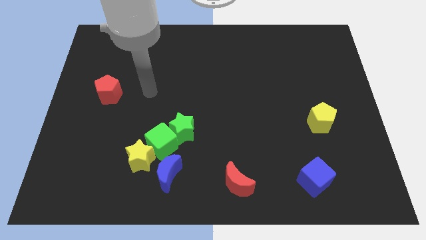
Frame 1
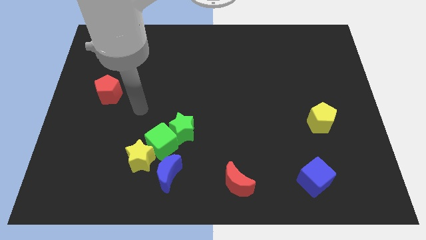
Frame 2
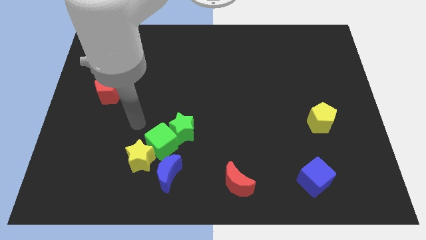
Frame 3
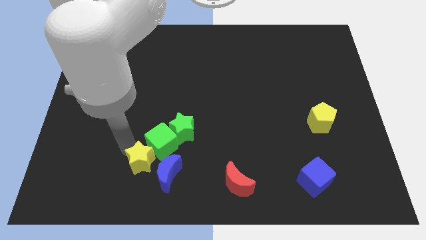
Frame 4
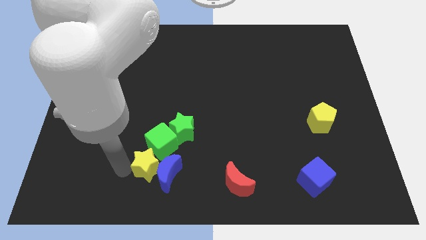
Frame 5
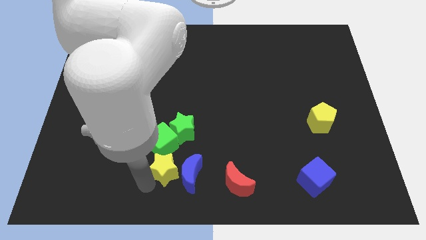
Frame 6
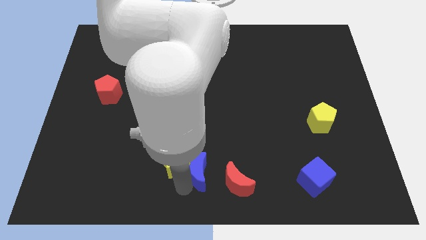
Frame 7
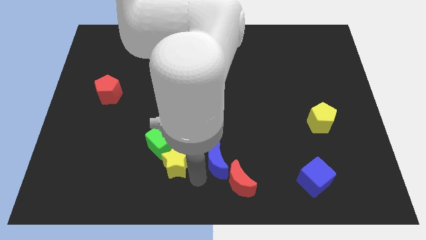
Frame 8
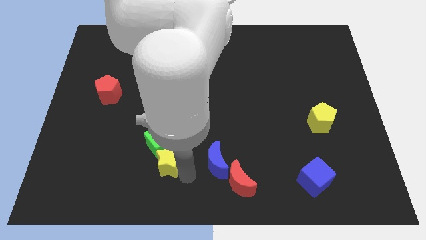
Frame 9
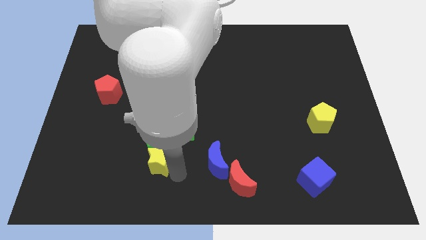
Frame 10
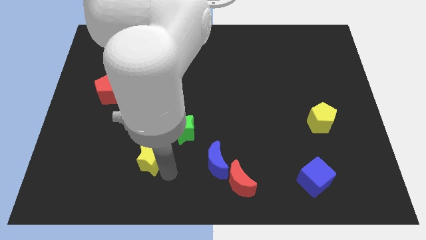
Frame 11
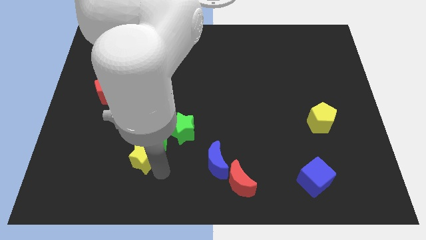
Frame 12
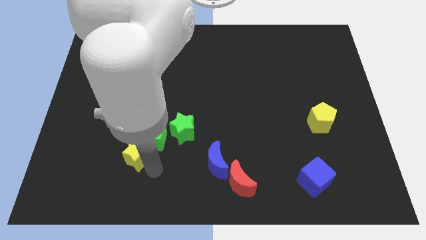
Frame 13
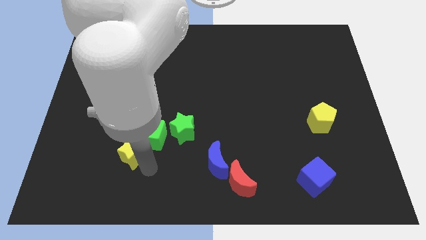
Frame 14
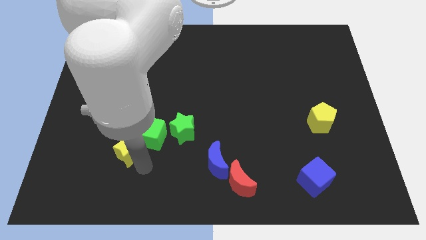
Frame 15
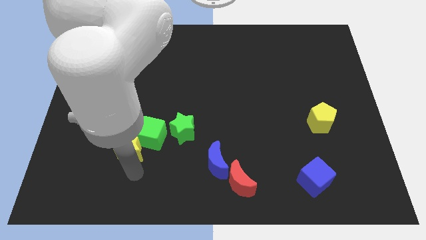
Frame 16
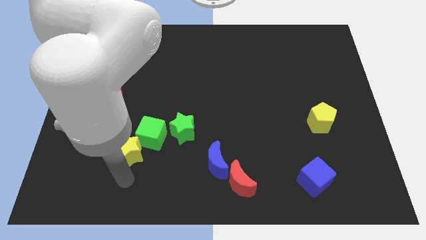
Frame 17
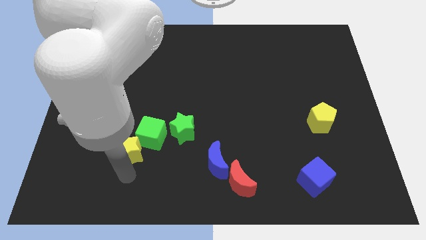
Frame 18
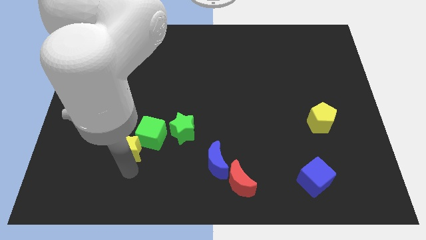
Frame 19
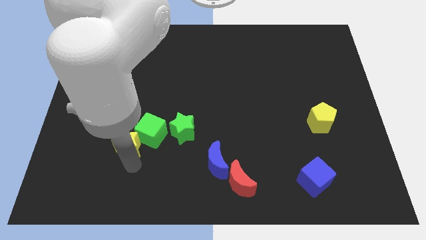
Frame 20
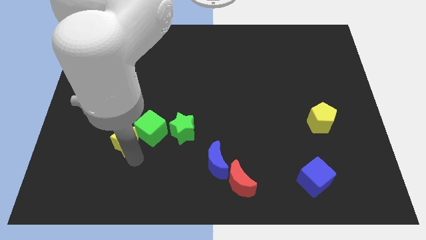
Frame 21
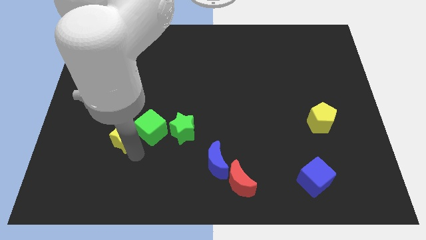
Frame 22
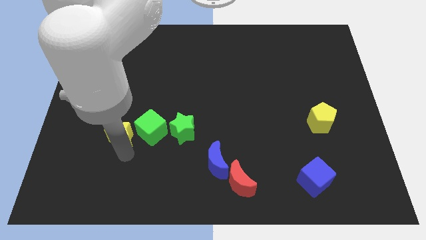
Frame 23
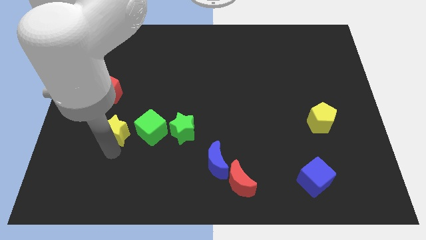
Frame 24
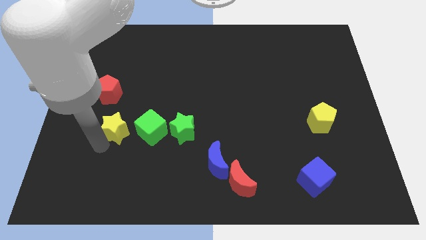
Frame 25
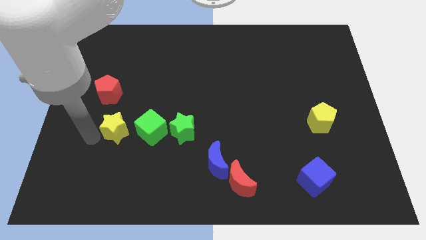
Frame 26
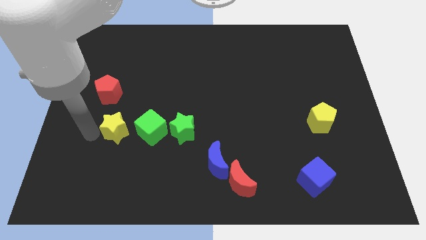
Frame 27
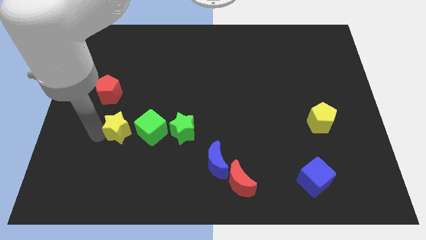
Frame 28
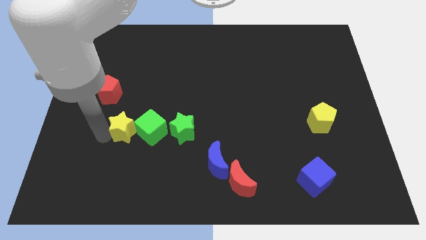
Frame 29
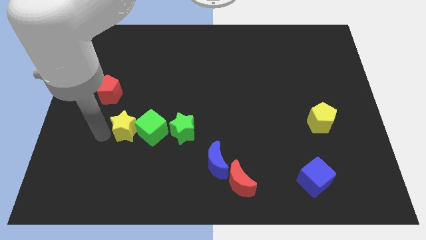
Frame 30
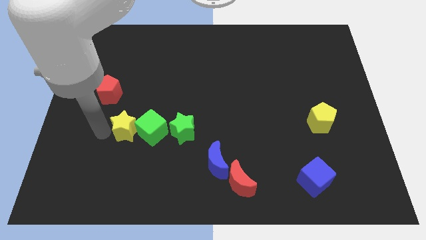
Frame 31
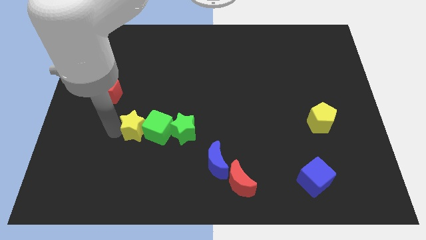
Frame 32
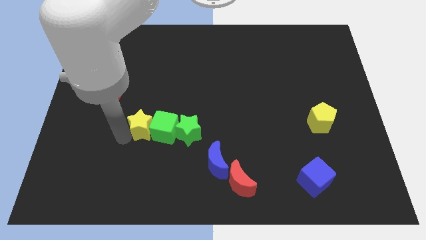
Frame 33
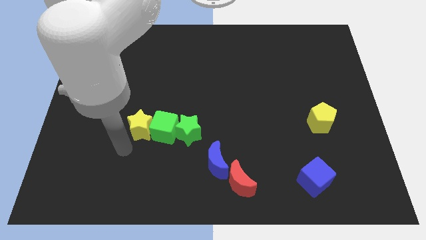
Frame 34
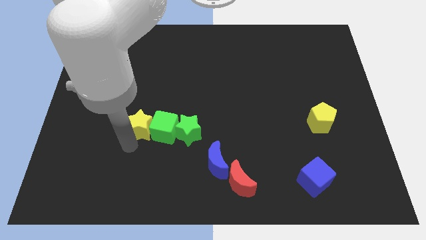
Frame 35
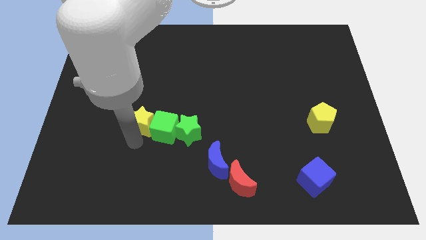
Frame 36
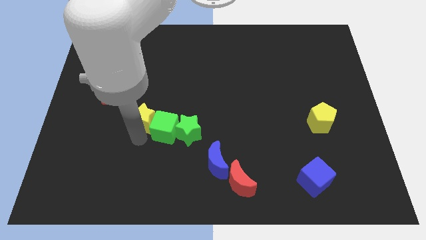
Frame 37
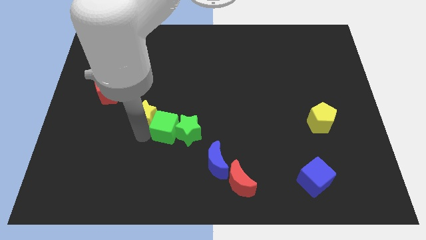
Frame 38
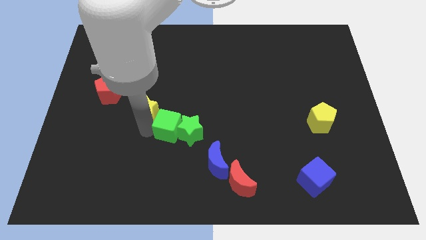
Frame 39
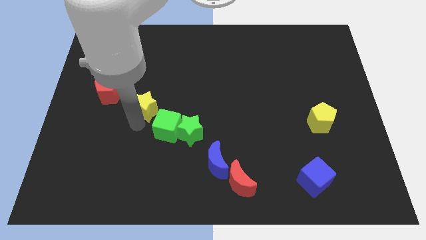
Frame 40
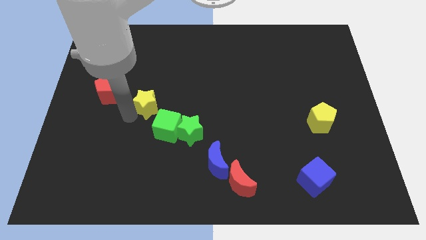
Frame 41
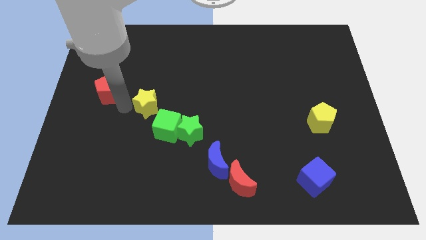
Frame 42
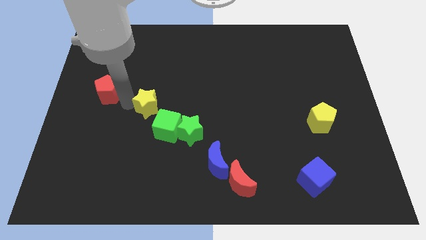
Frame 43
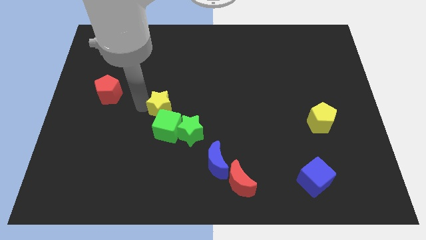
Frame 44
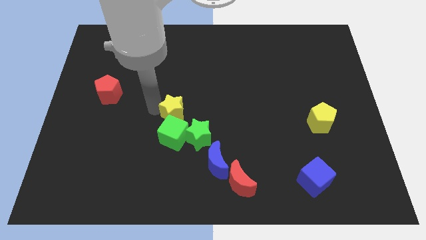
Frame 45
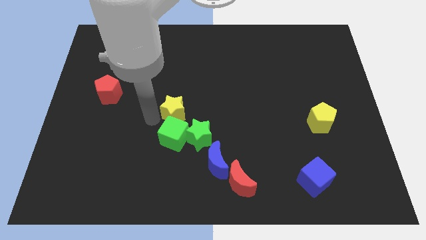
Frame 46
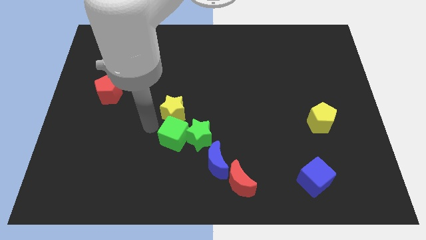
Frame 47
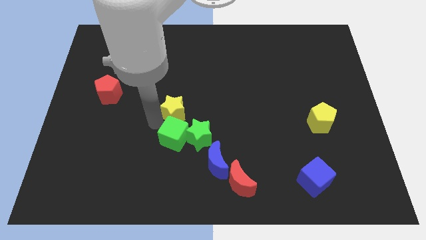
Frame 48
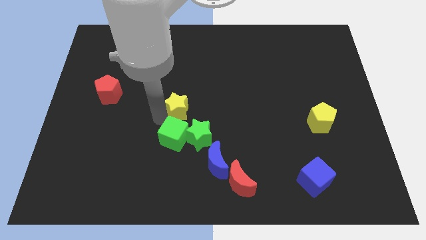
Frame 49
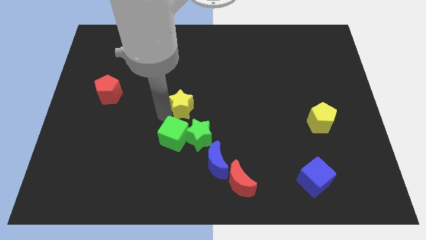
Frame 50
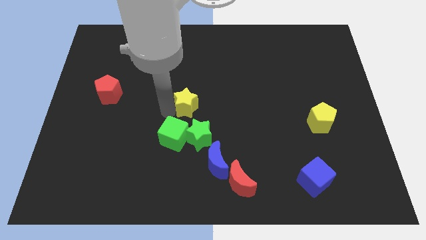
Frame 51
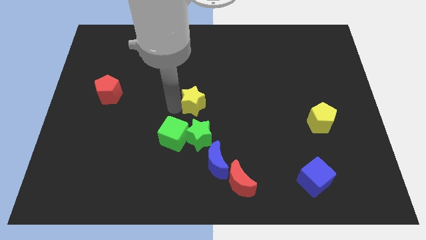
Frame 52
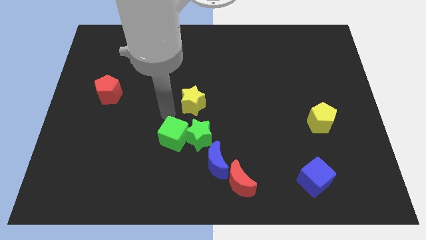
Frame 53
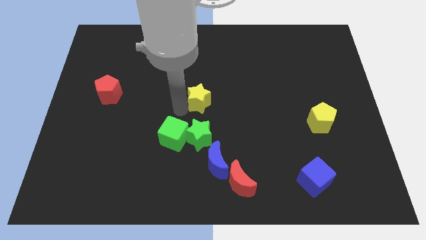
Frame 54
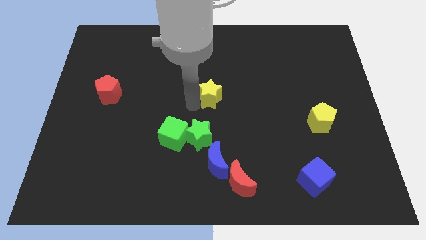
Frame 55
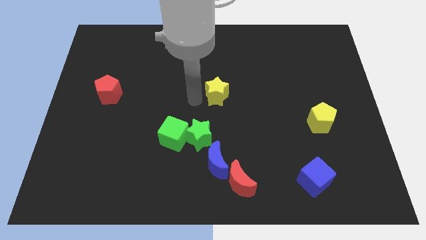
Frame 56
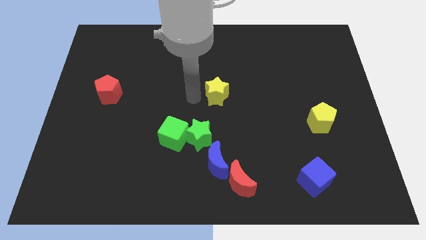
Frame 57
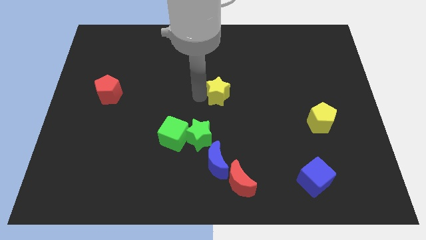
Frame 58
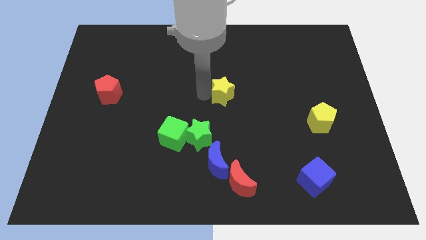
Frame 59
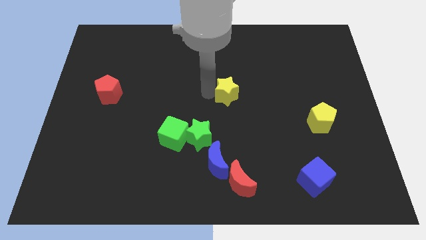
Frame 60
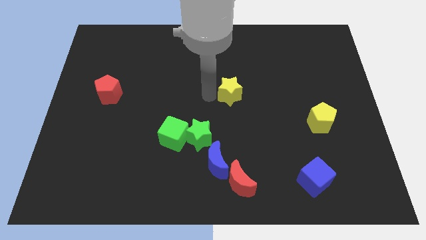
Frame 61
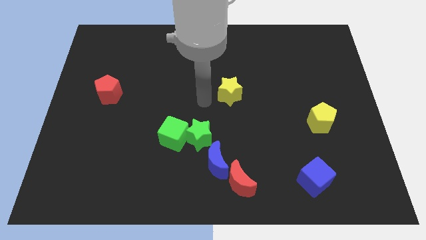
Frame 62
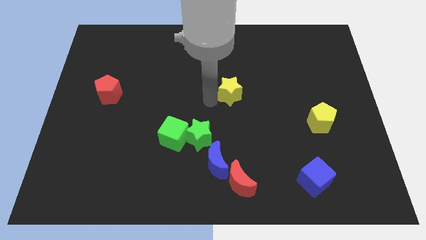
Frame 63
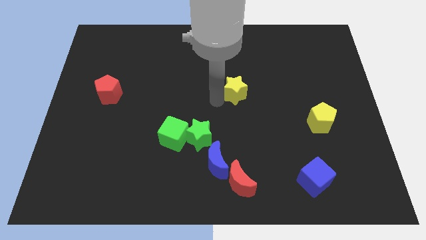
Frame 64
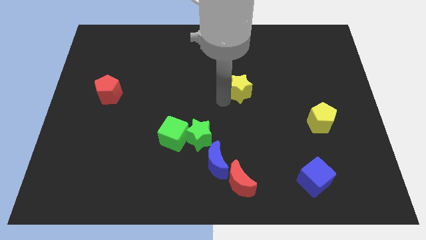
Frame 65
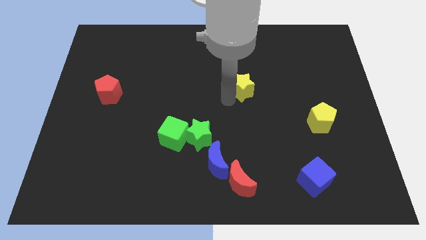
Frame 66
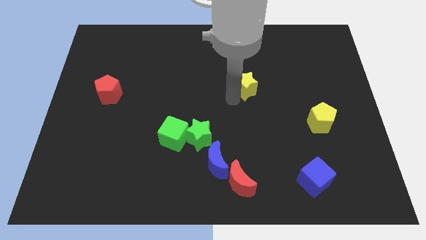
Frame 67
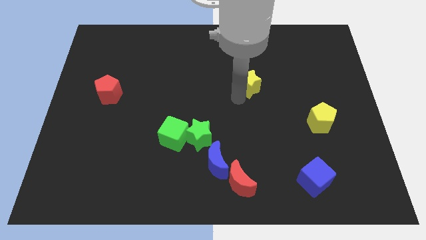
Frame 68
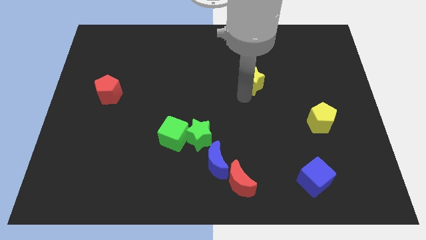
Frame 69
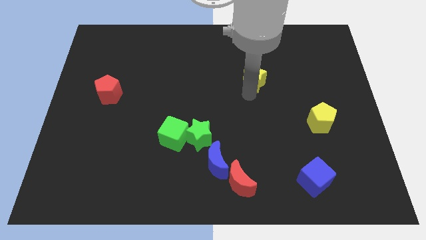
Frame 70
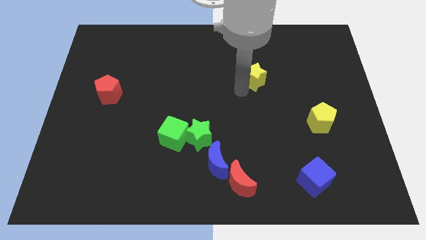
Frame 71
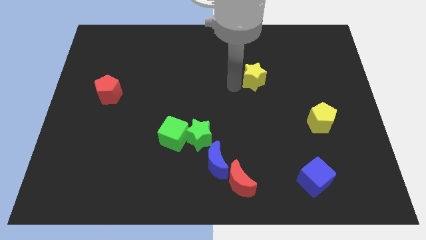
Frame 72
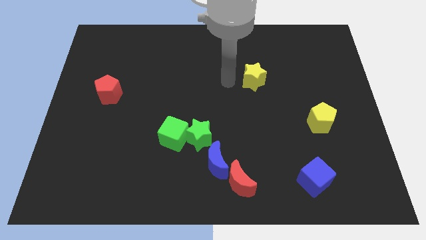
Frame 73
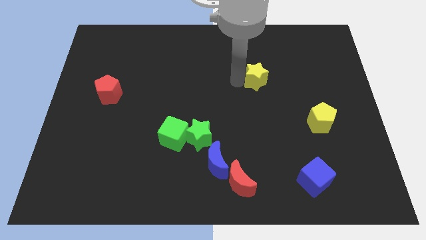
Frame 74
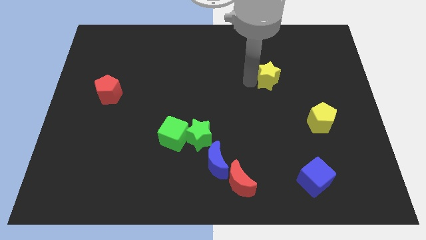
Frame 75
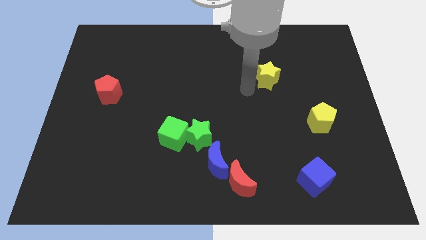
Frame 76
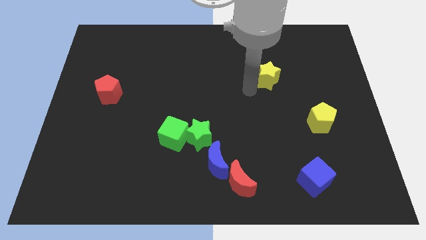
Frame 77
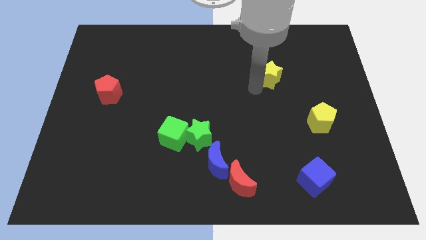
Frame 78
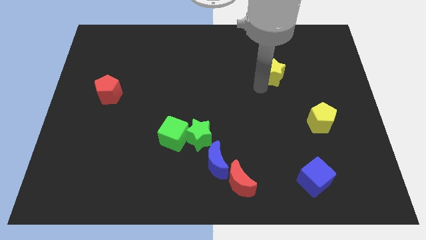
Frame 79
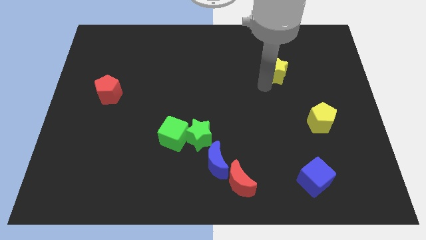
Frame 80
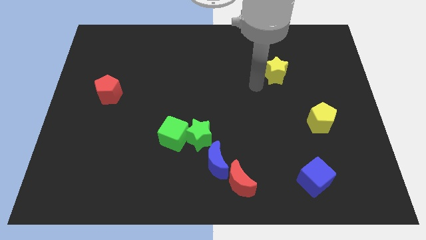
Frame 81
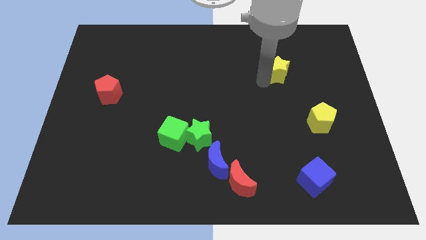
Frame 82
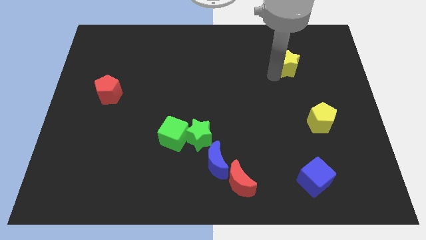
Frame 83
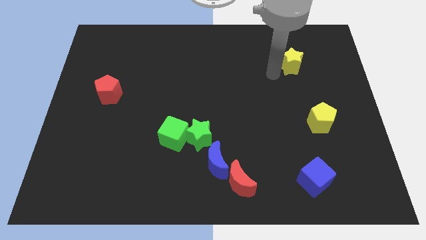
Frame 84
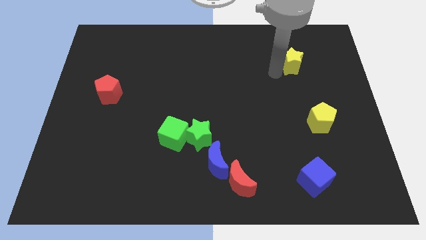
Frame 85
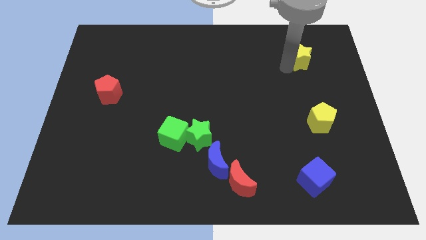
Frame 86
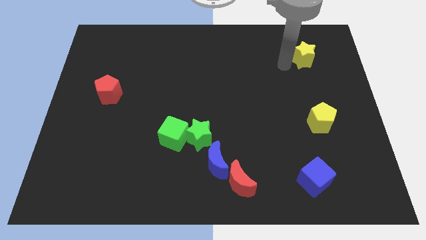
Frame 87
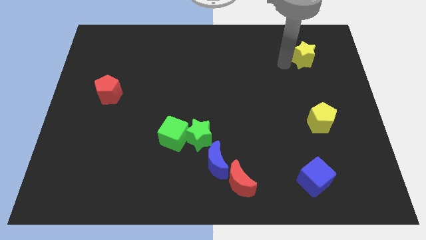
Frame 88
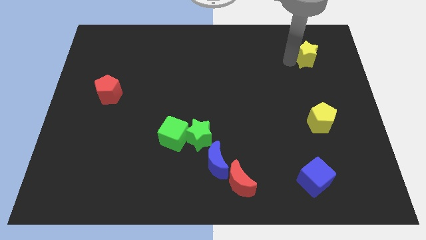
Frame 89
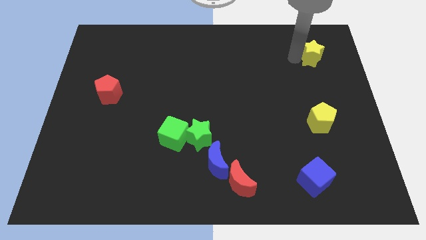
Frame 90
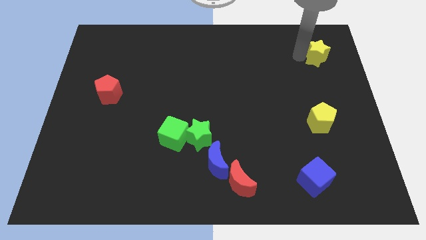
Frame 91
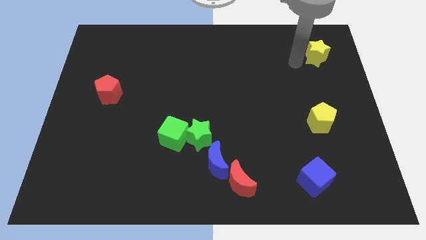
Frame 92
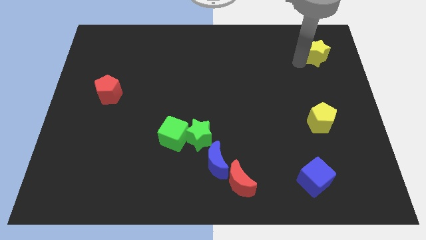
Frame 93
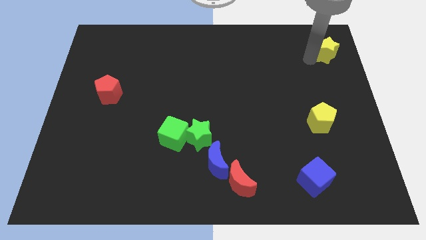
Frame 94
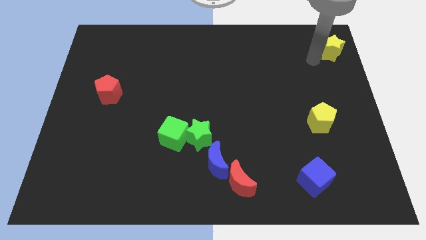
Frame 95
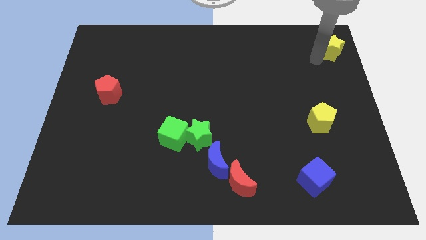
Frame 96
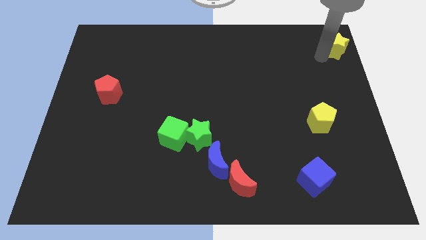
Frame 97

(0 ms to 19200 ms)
put the yellow star to the top right
